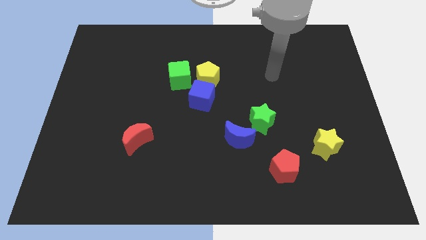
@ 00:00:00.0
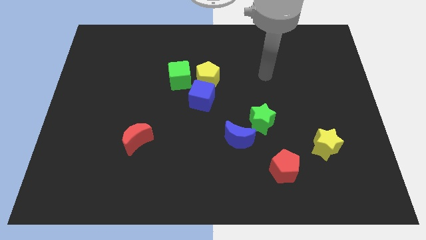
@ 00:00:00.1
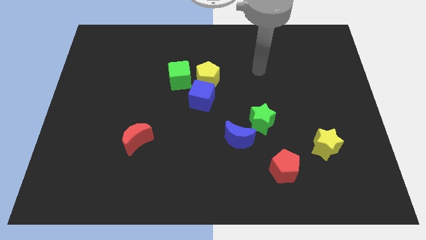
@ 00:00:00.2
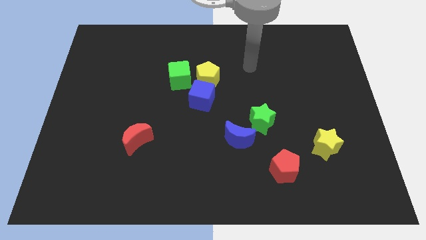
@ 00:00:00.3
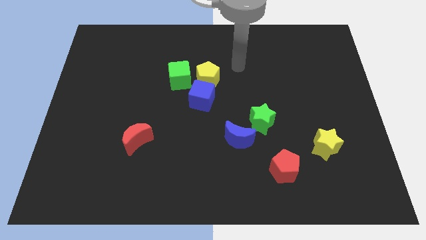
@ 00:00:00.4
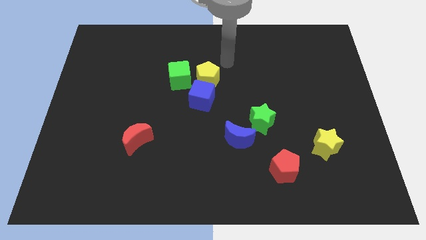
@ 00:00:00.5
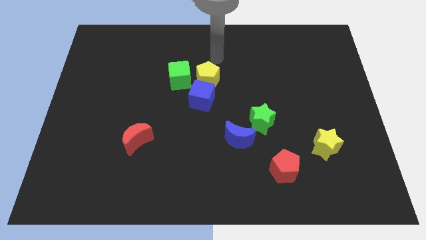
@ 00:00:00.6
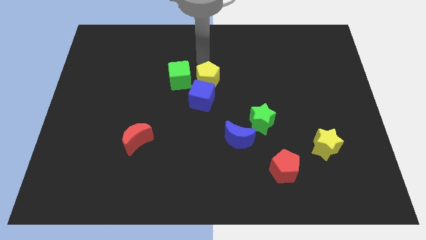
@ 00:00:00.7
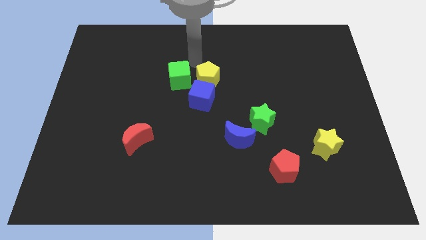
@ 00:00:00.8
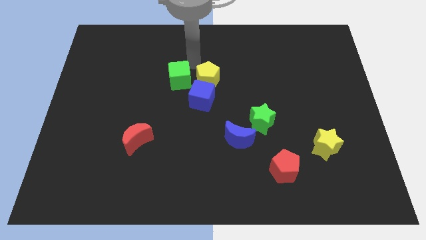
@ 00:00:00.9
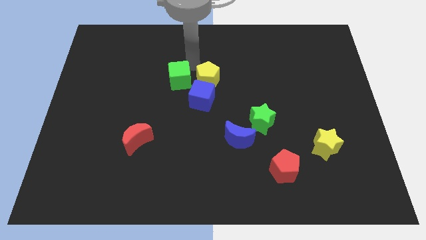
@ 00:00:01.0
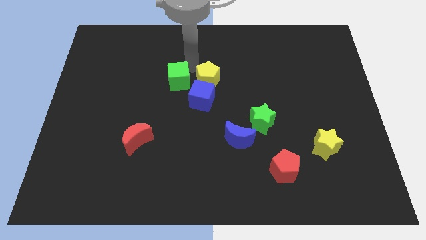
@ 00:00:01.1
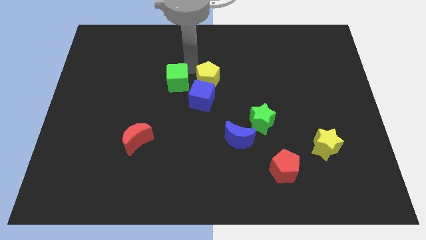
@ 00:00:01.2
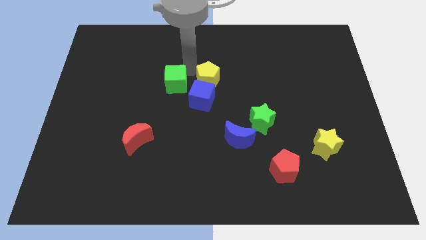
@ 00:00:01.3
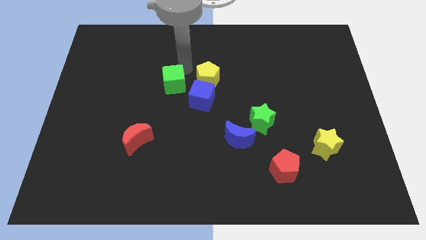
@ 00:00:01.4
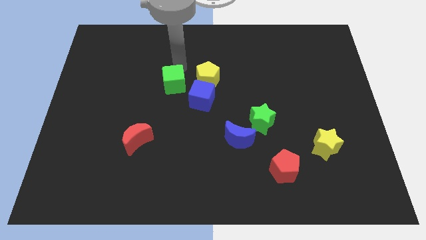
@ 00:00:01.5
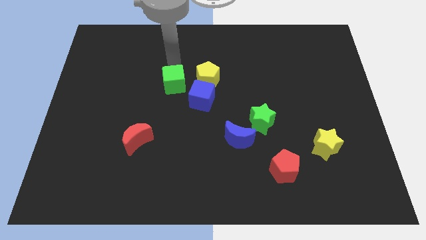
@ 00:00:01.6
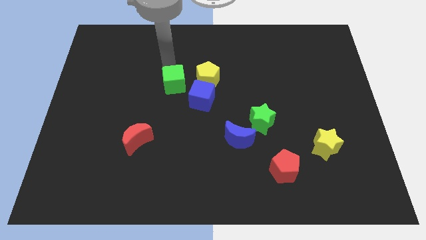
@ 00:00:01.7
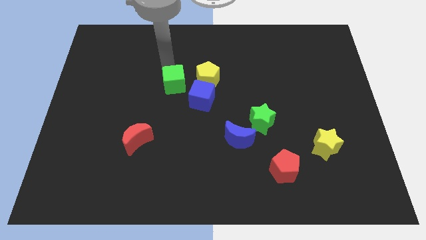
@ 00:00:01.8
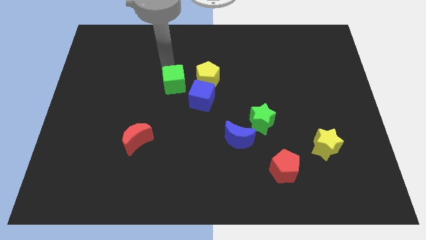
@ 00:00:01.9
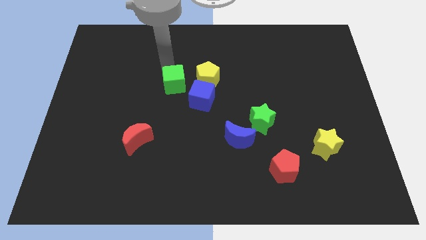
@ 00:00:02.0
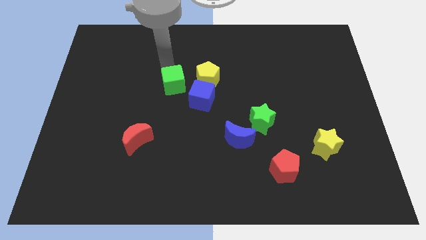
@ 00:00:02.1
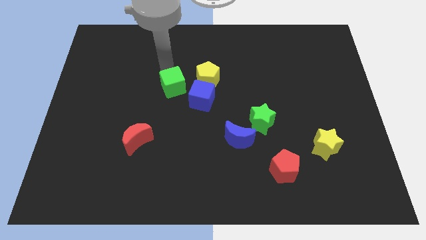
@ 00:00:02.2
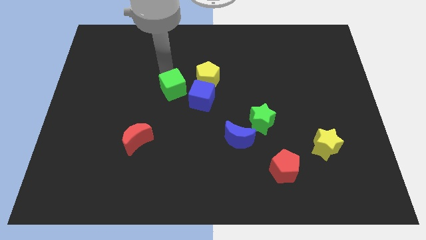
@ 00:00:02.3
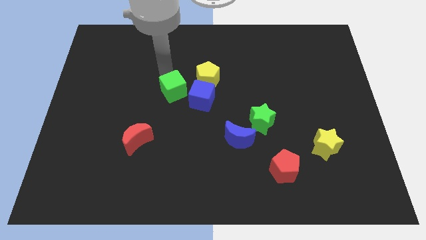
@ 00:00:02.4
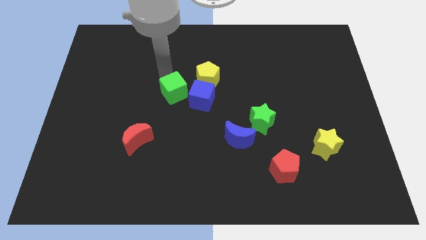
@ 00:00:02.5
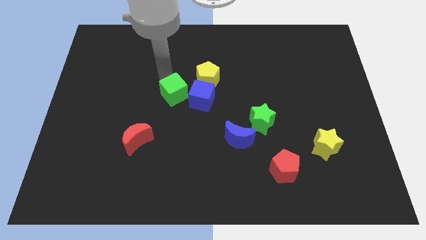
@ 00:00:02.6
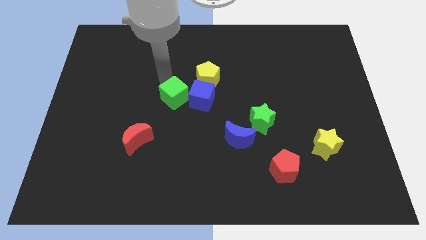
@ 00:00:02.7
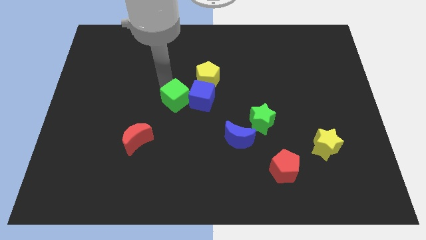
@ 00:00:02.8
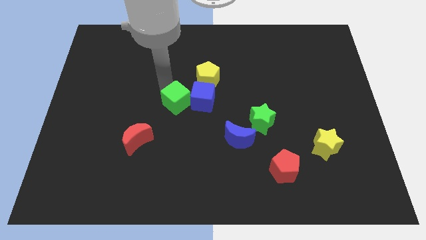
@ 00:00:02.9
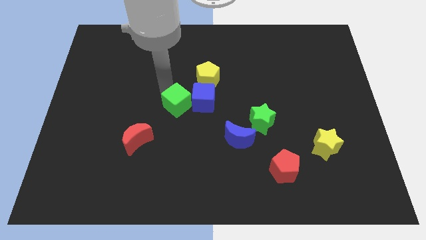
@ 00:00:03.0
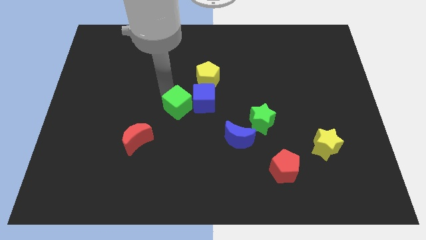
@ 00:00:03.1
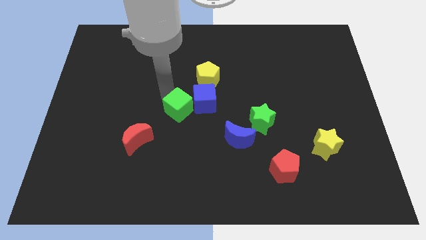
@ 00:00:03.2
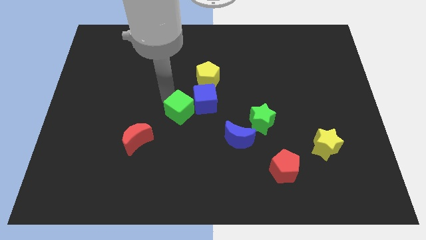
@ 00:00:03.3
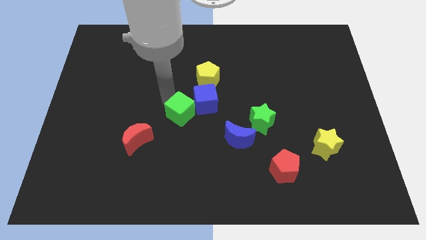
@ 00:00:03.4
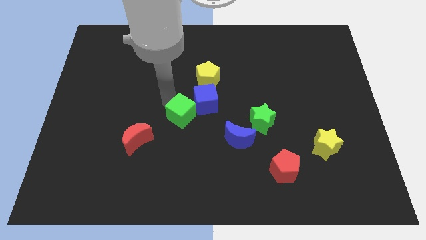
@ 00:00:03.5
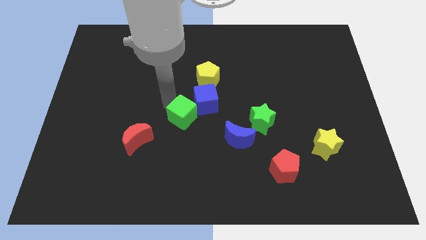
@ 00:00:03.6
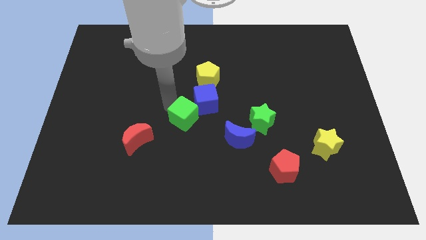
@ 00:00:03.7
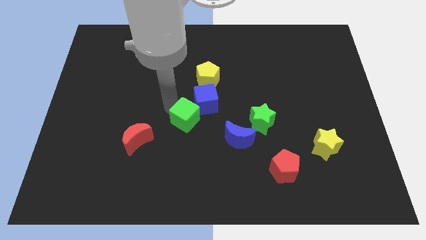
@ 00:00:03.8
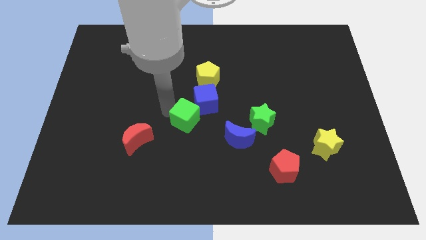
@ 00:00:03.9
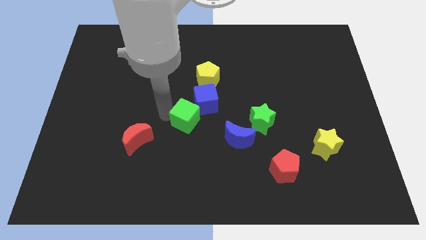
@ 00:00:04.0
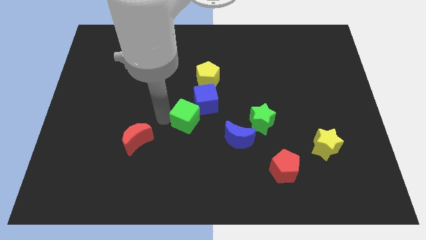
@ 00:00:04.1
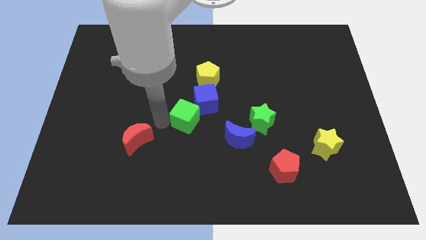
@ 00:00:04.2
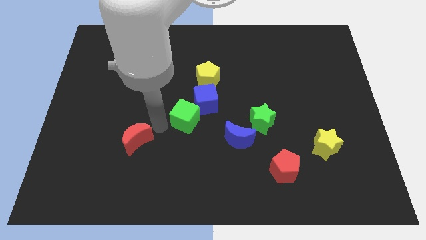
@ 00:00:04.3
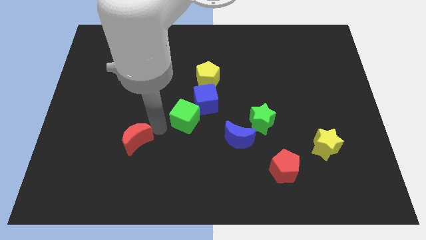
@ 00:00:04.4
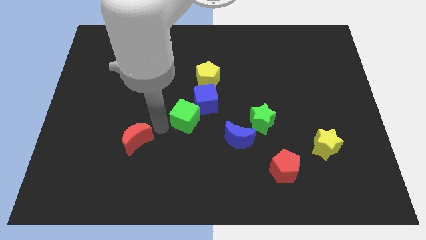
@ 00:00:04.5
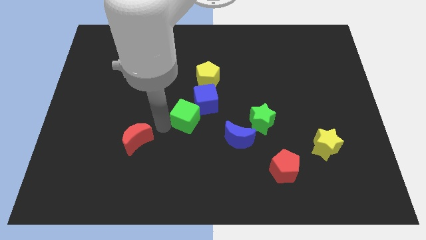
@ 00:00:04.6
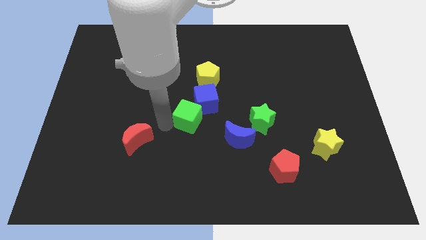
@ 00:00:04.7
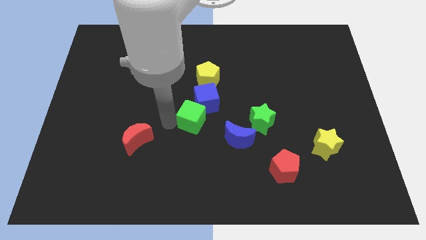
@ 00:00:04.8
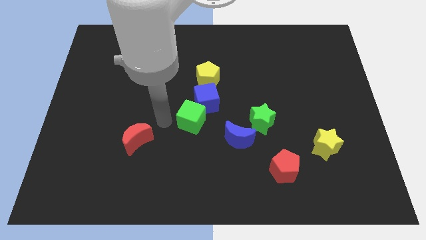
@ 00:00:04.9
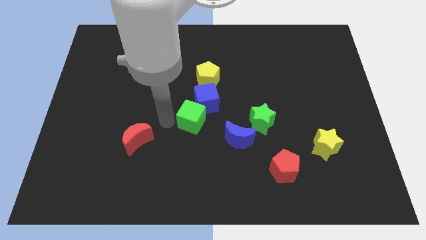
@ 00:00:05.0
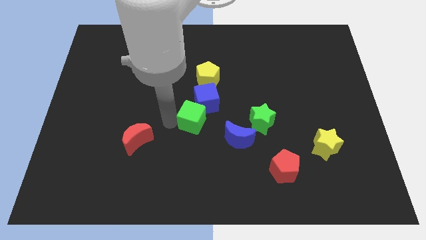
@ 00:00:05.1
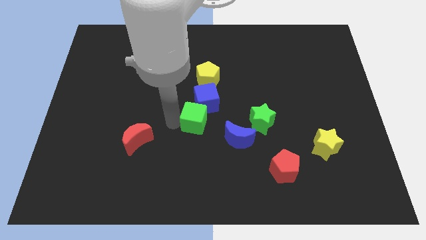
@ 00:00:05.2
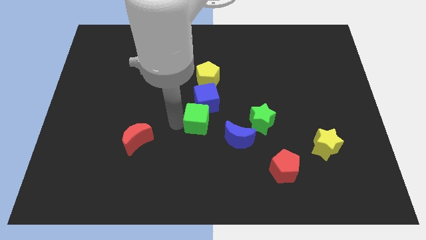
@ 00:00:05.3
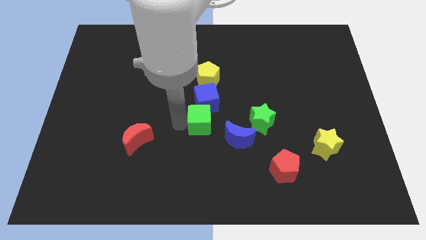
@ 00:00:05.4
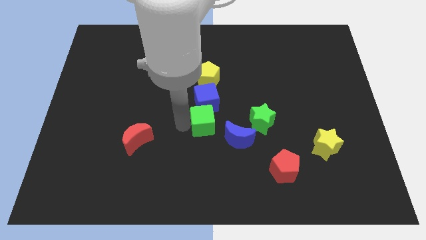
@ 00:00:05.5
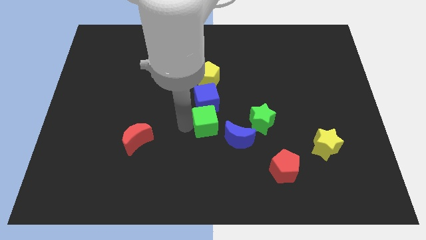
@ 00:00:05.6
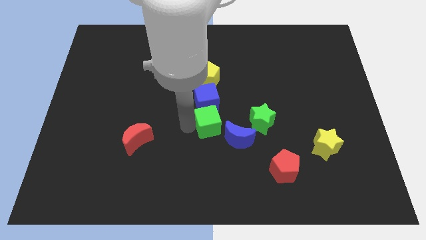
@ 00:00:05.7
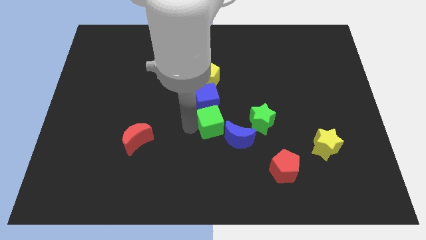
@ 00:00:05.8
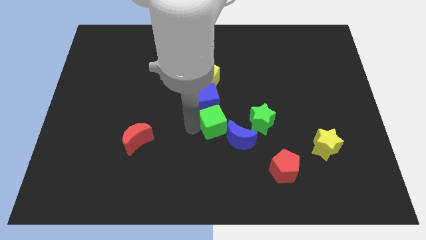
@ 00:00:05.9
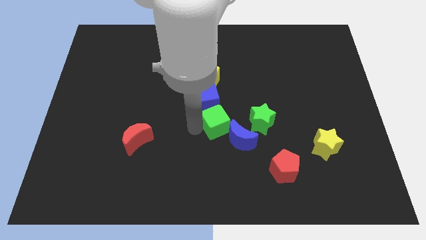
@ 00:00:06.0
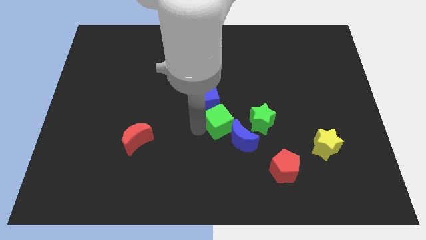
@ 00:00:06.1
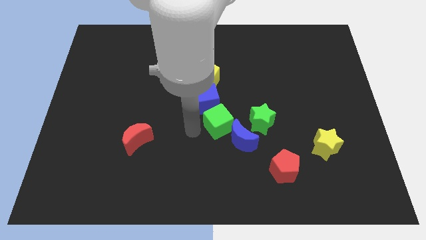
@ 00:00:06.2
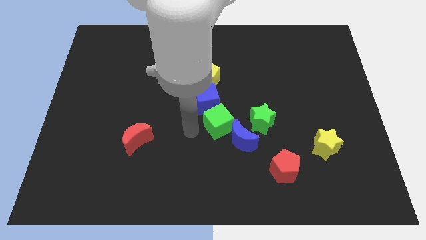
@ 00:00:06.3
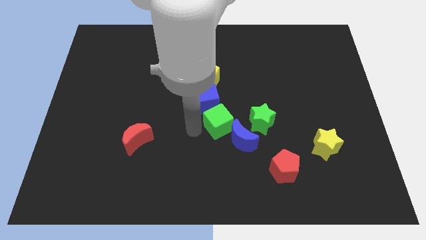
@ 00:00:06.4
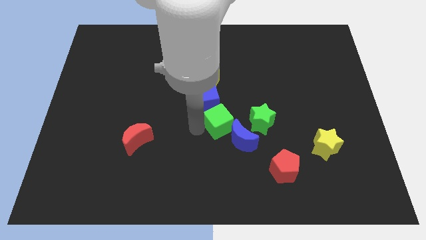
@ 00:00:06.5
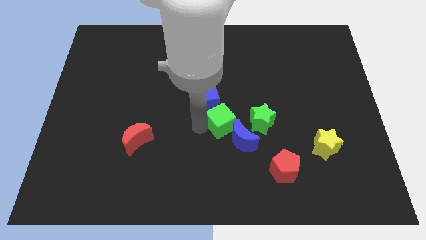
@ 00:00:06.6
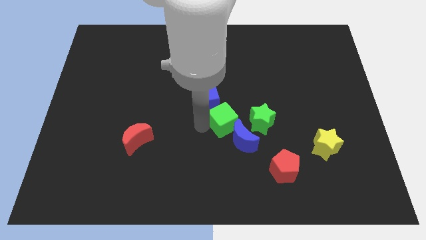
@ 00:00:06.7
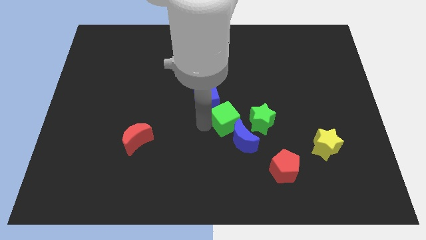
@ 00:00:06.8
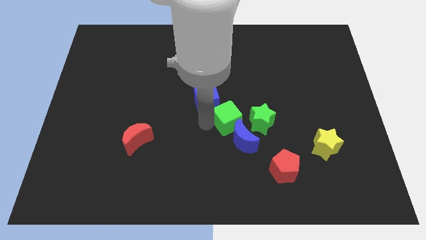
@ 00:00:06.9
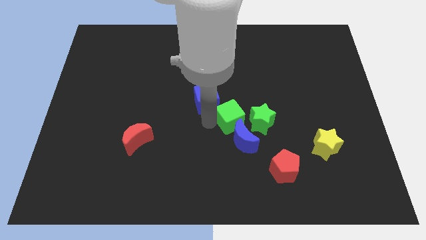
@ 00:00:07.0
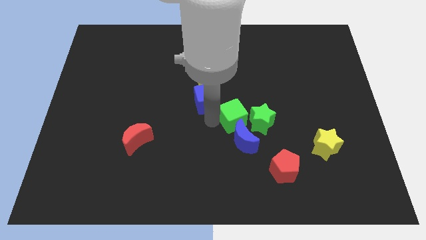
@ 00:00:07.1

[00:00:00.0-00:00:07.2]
move the green cube to the green star
